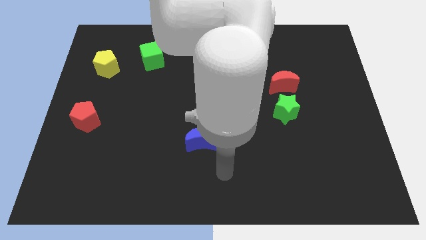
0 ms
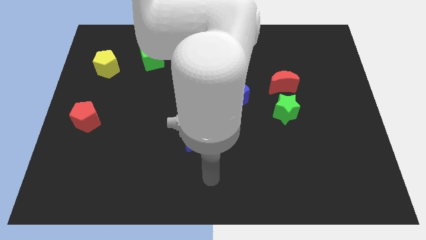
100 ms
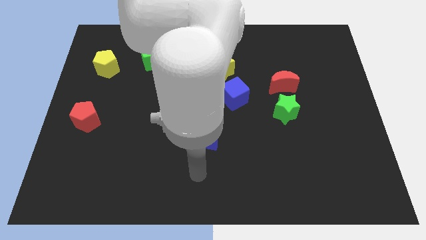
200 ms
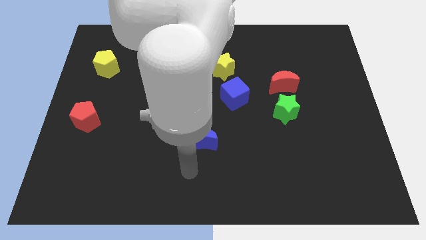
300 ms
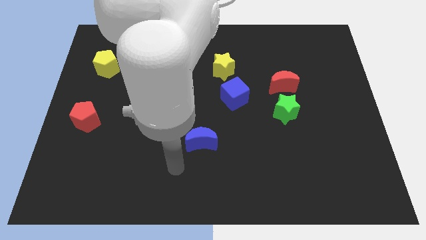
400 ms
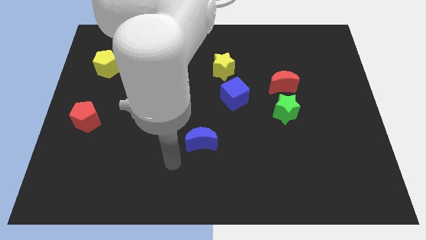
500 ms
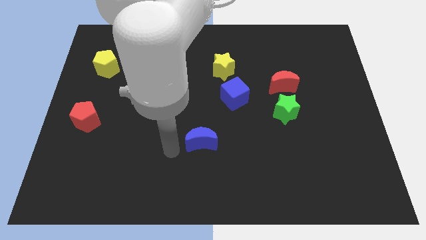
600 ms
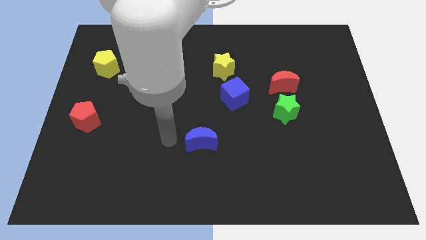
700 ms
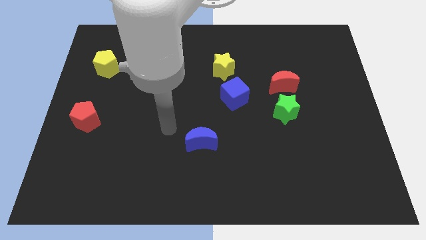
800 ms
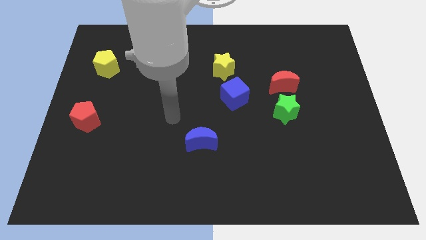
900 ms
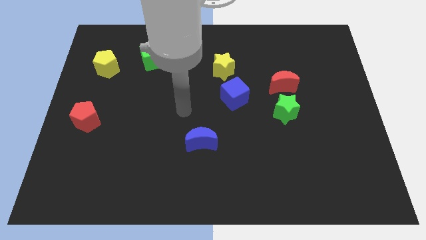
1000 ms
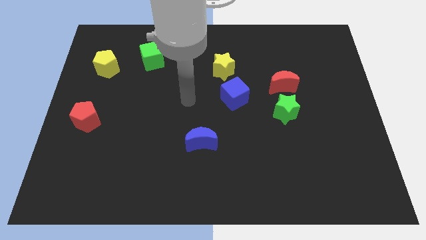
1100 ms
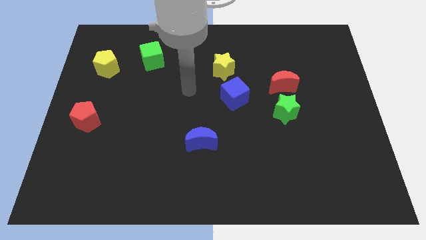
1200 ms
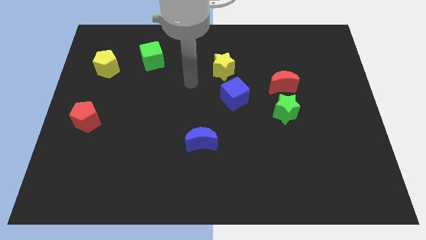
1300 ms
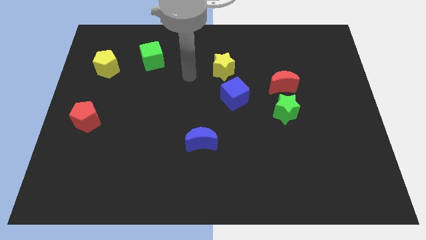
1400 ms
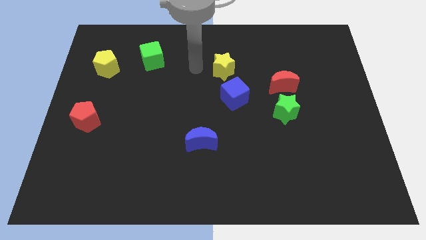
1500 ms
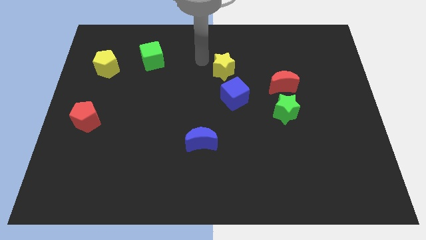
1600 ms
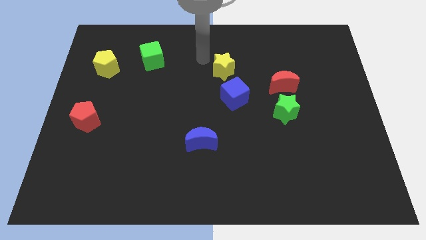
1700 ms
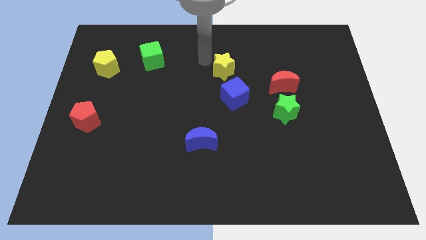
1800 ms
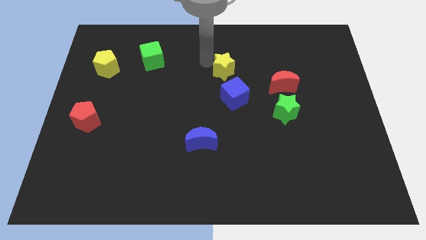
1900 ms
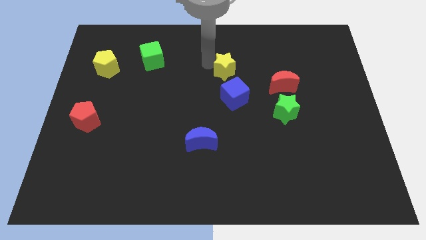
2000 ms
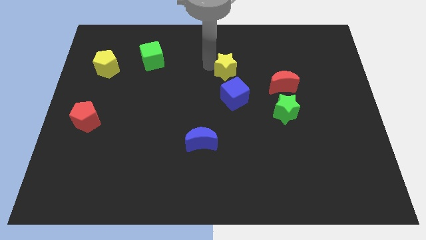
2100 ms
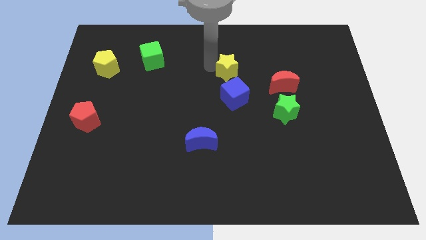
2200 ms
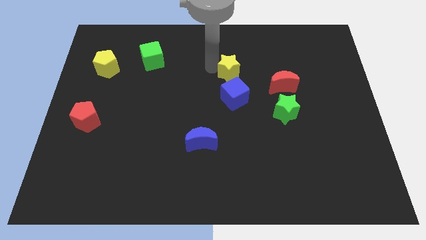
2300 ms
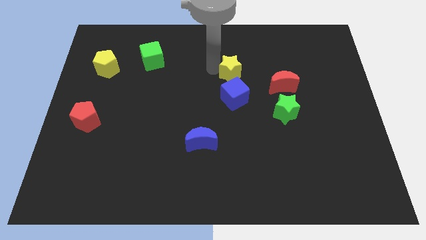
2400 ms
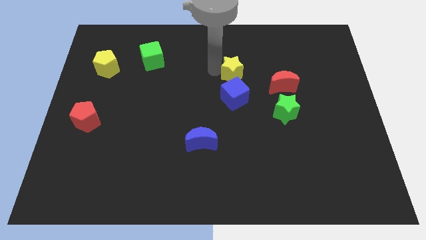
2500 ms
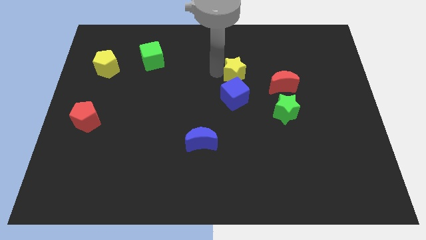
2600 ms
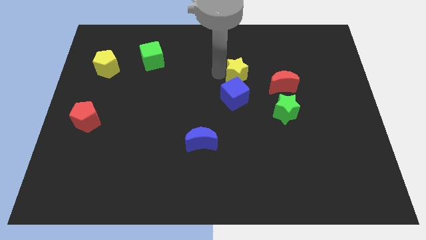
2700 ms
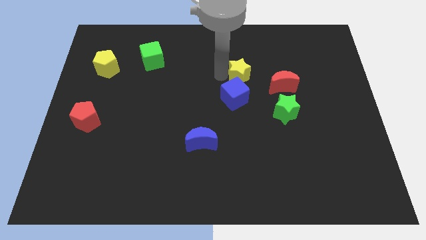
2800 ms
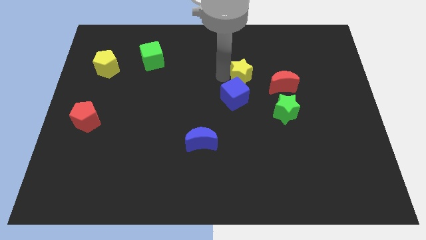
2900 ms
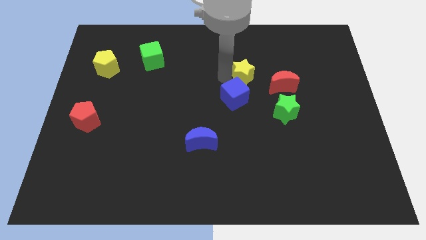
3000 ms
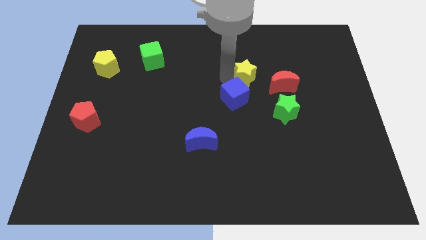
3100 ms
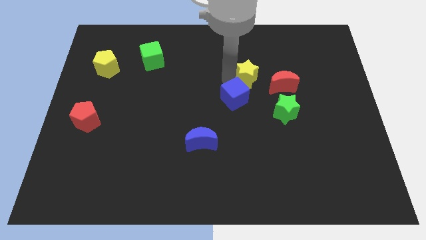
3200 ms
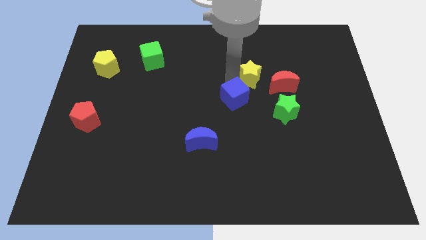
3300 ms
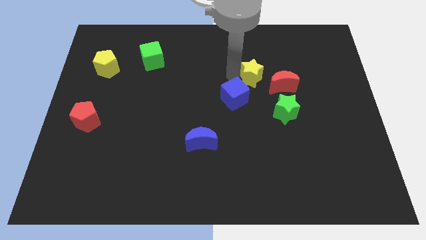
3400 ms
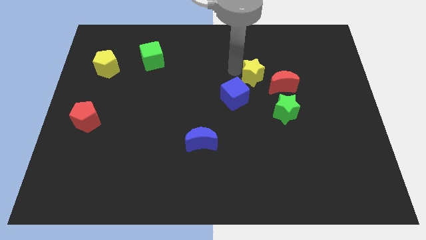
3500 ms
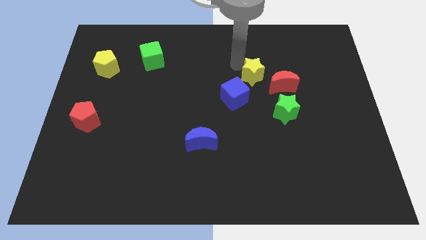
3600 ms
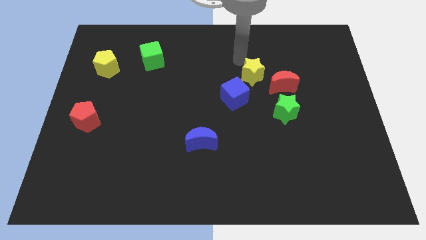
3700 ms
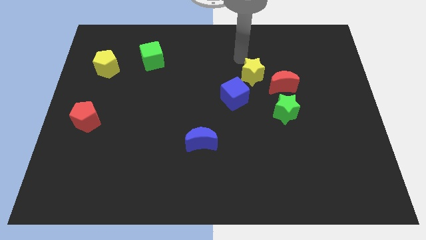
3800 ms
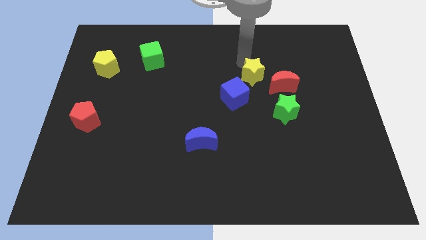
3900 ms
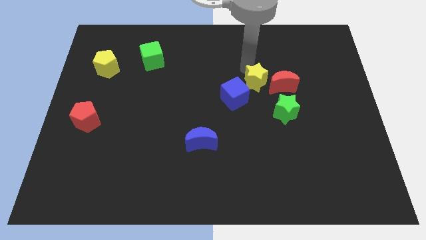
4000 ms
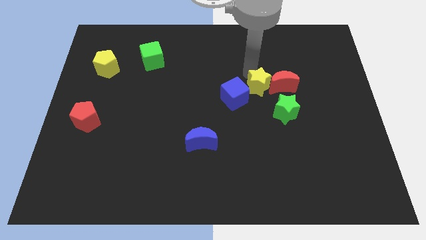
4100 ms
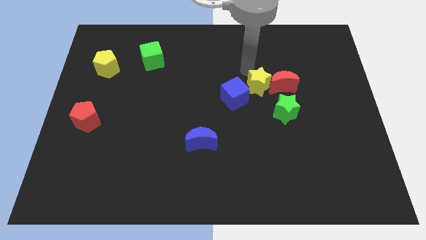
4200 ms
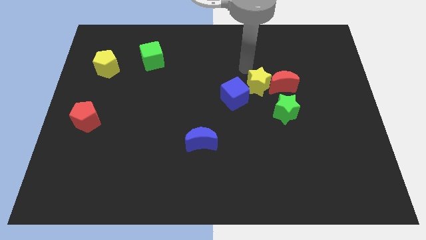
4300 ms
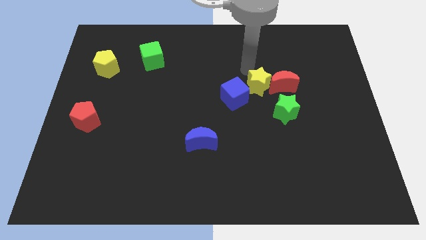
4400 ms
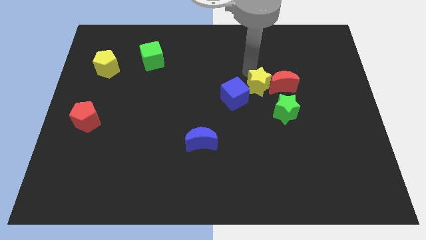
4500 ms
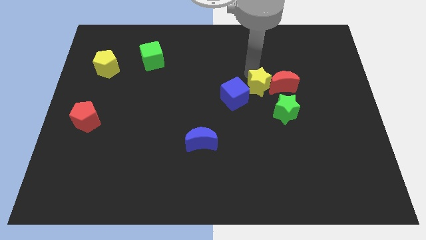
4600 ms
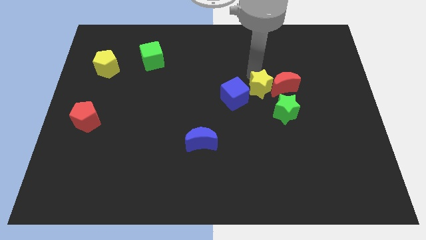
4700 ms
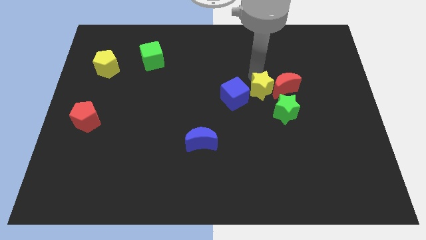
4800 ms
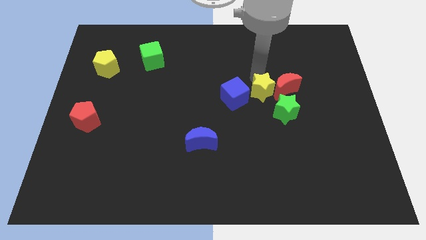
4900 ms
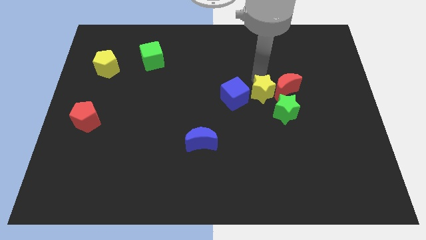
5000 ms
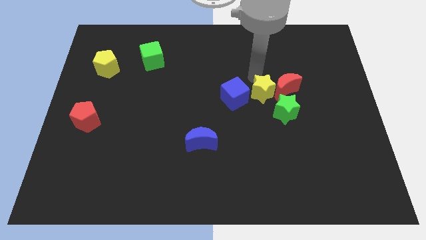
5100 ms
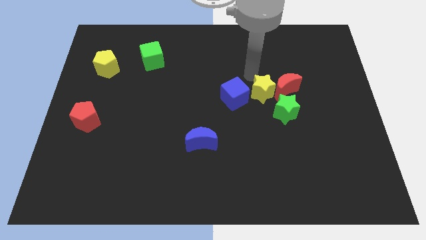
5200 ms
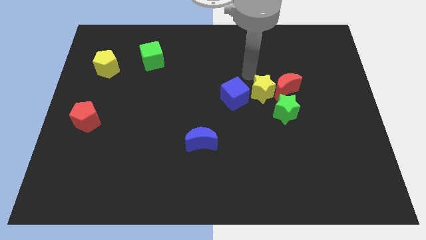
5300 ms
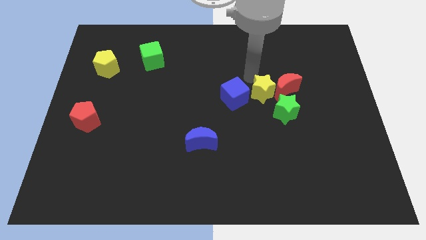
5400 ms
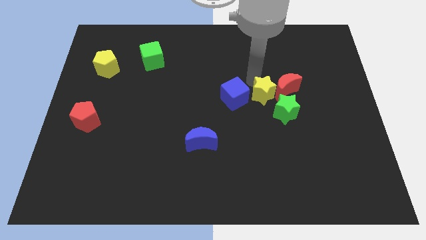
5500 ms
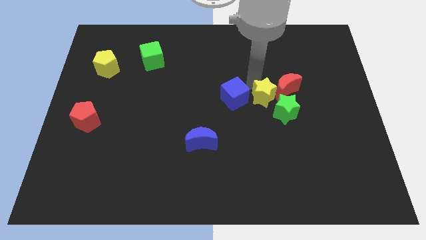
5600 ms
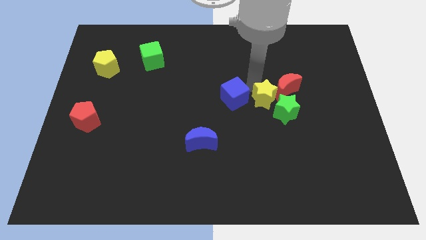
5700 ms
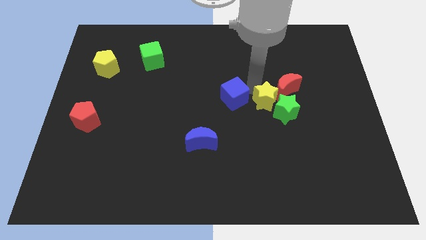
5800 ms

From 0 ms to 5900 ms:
push the yellow star next to the green star

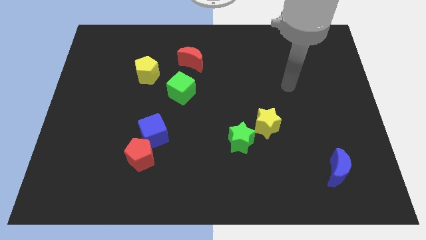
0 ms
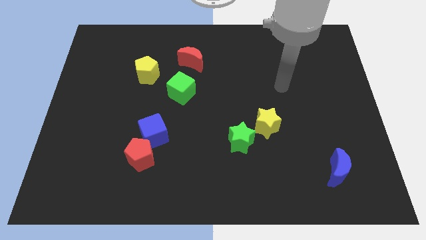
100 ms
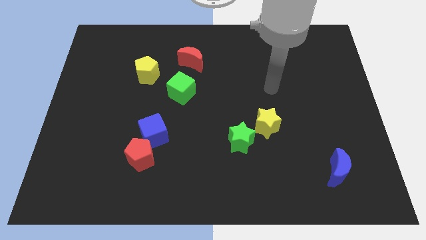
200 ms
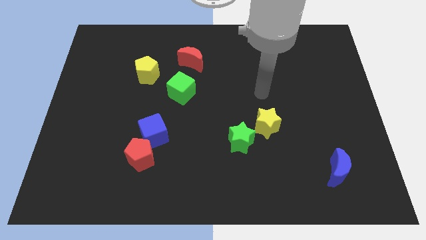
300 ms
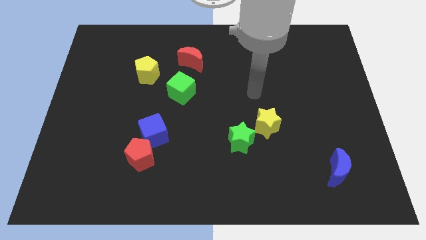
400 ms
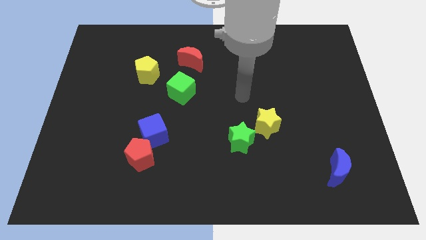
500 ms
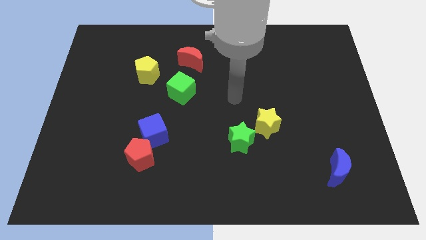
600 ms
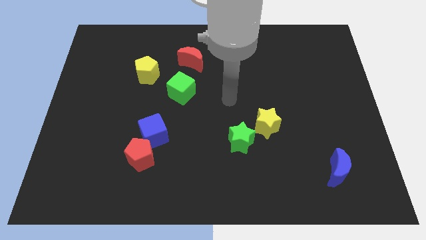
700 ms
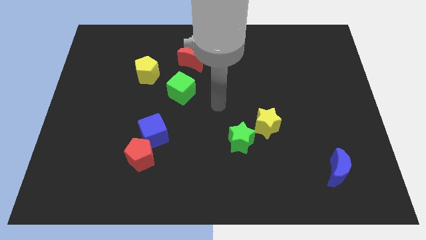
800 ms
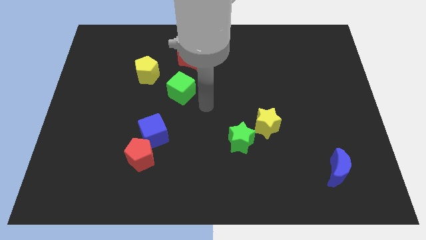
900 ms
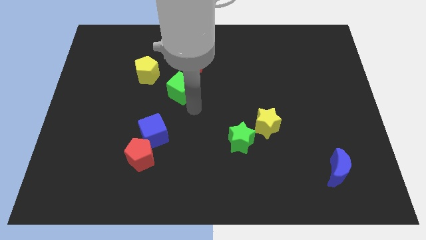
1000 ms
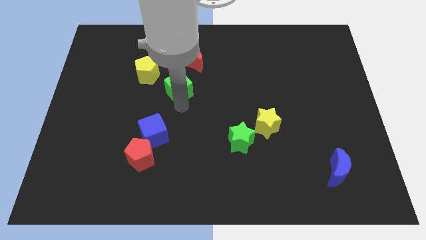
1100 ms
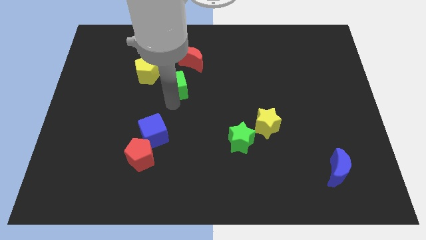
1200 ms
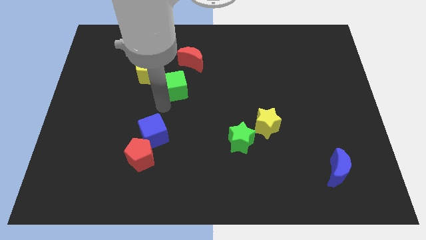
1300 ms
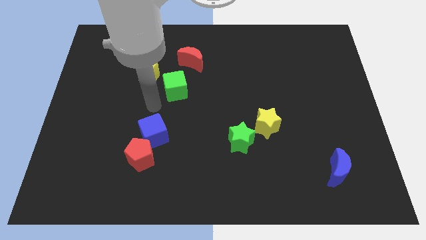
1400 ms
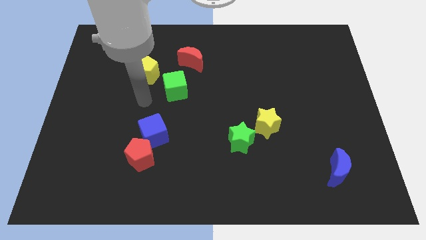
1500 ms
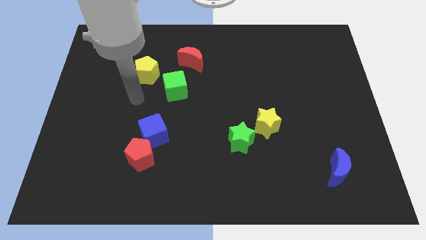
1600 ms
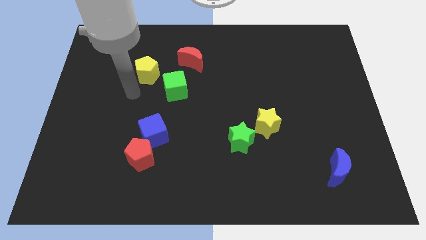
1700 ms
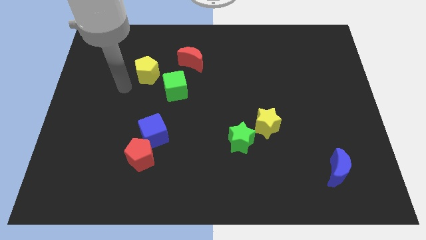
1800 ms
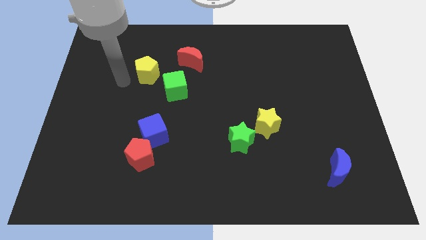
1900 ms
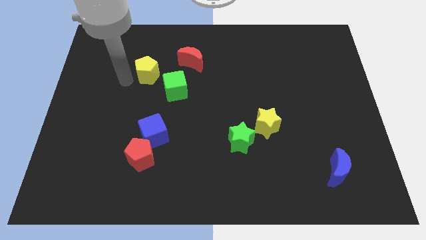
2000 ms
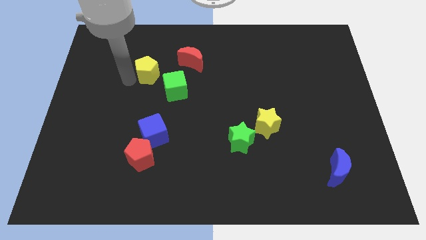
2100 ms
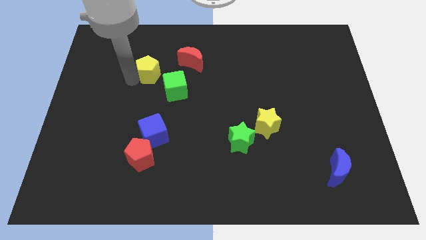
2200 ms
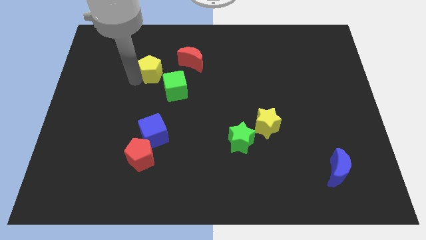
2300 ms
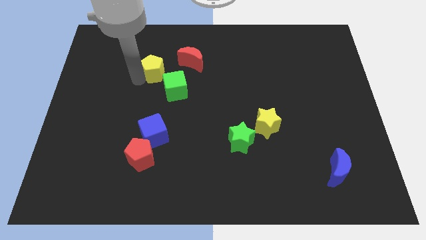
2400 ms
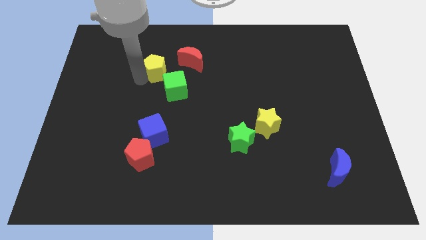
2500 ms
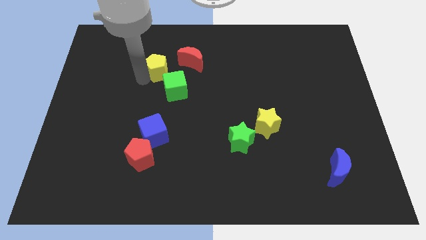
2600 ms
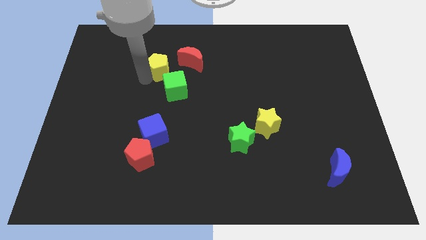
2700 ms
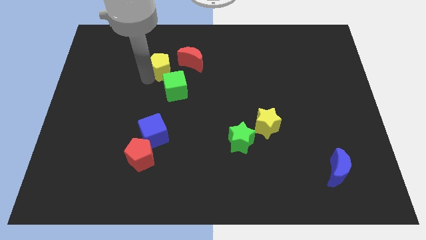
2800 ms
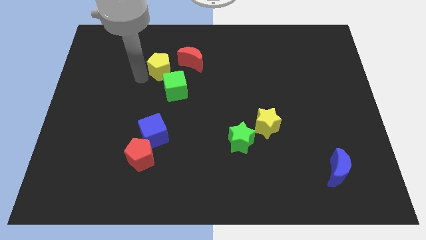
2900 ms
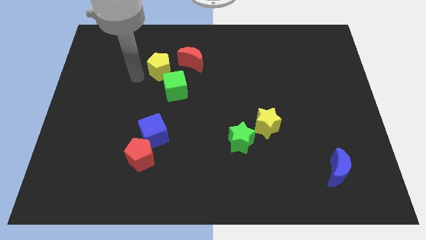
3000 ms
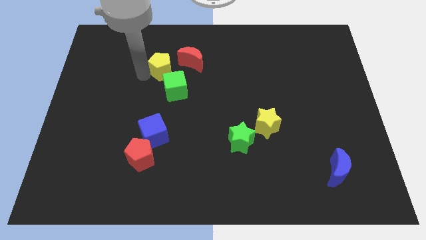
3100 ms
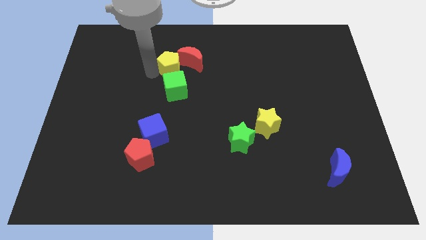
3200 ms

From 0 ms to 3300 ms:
slide the yellow pentagon towards the red moon
